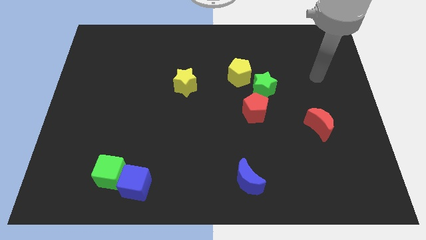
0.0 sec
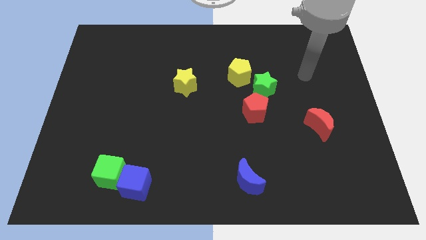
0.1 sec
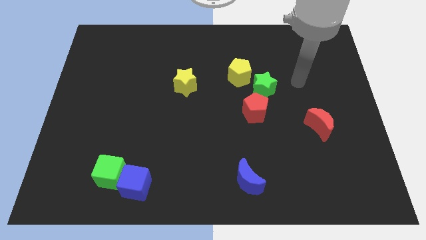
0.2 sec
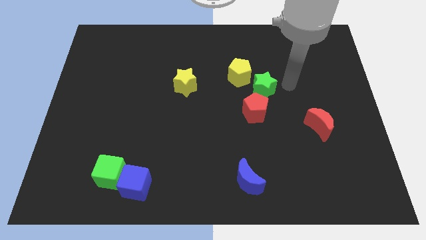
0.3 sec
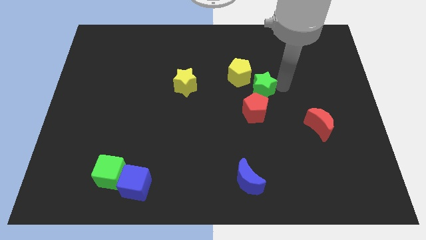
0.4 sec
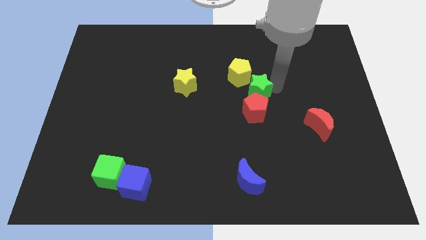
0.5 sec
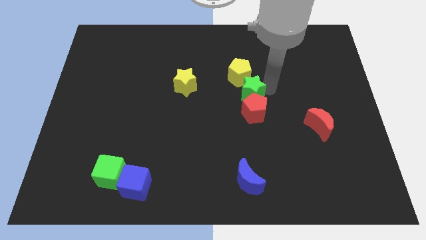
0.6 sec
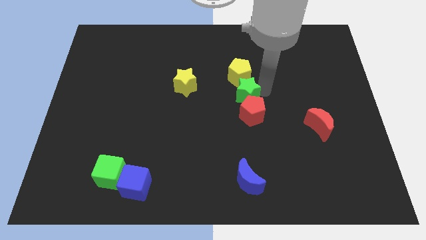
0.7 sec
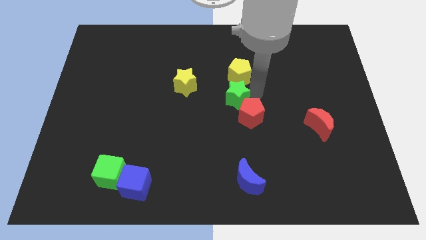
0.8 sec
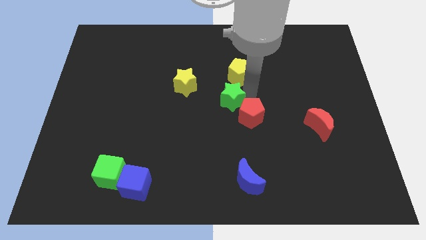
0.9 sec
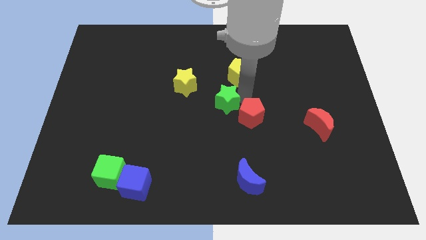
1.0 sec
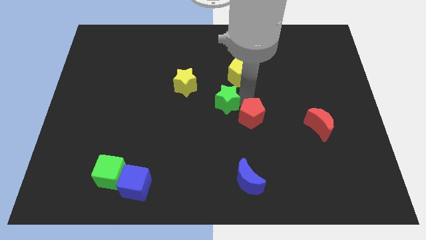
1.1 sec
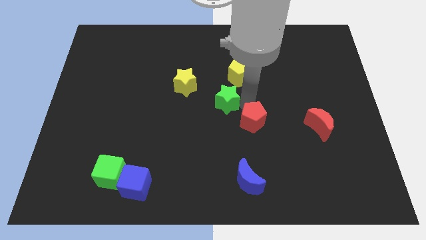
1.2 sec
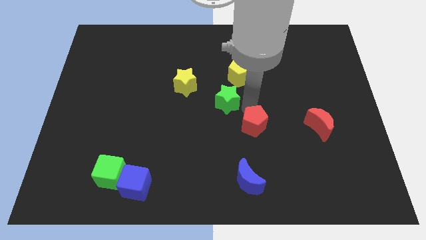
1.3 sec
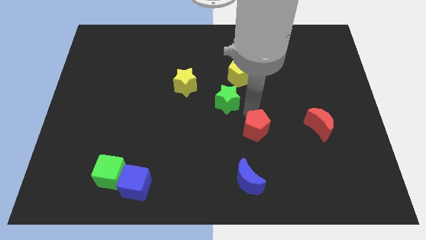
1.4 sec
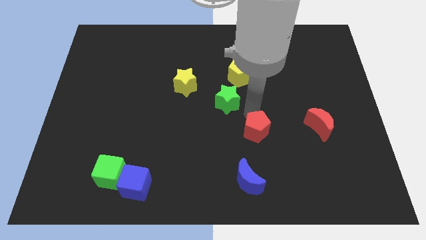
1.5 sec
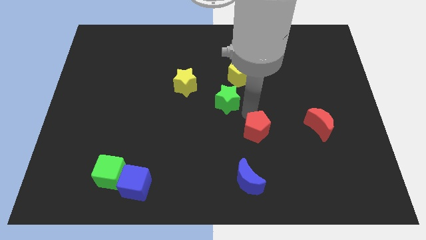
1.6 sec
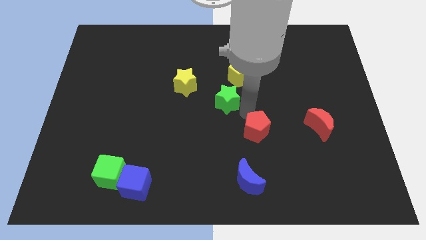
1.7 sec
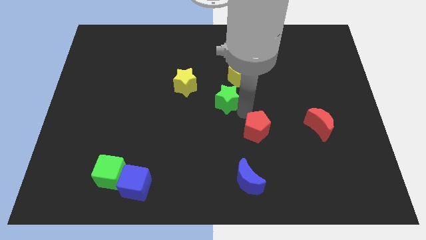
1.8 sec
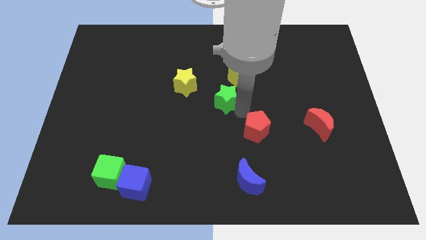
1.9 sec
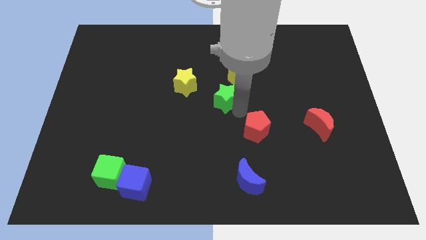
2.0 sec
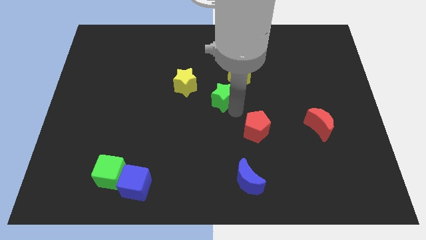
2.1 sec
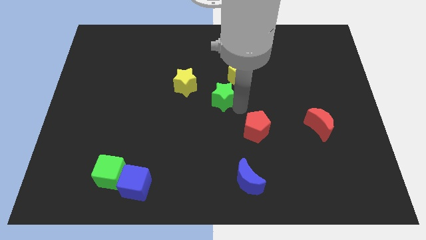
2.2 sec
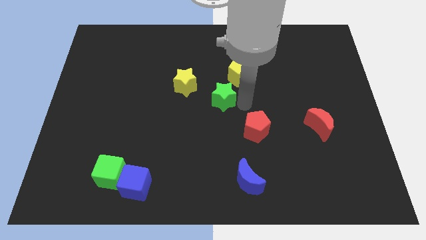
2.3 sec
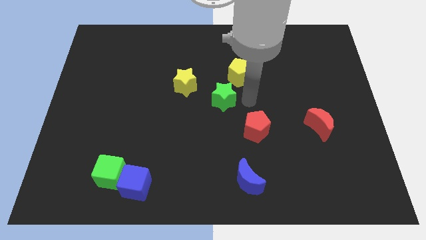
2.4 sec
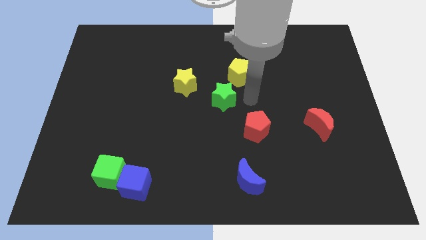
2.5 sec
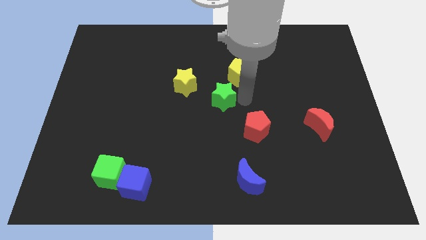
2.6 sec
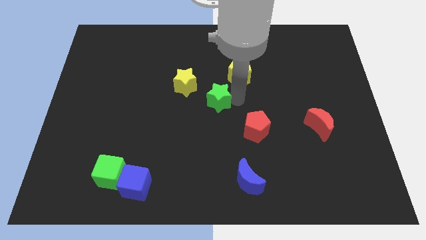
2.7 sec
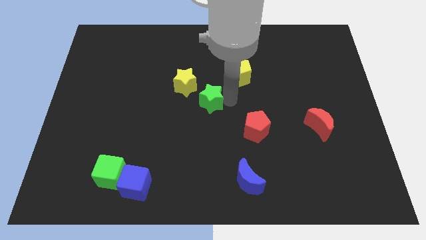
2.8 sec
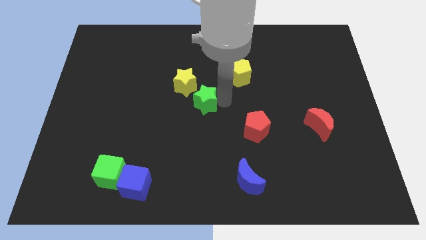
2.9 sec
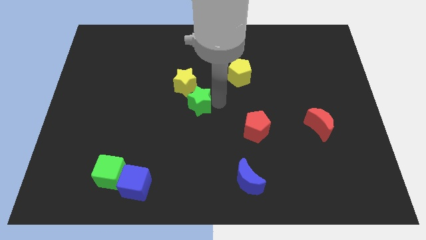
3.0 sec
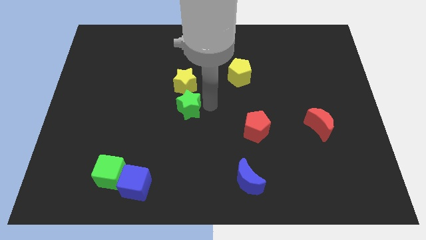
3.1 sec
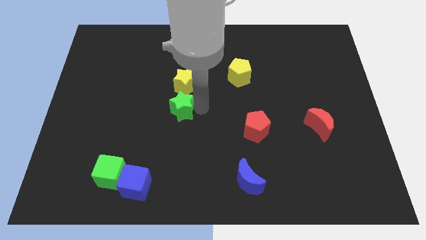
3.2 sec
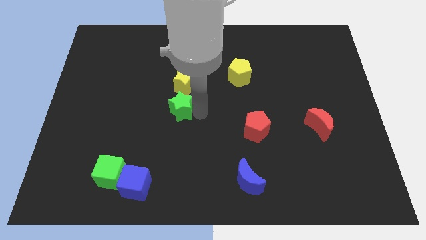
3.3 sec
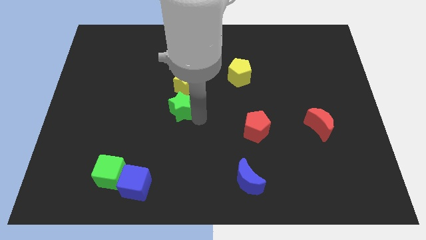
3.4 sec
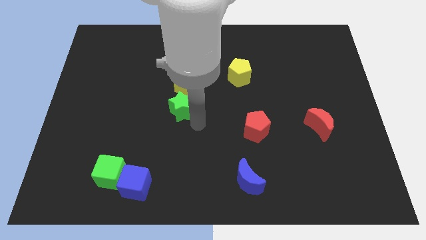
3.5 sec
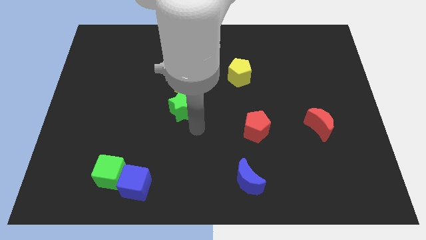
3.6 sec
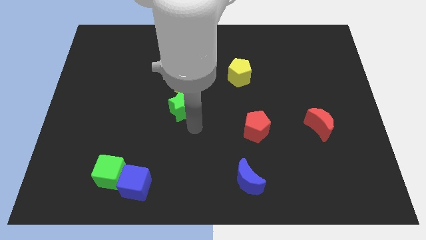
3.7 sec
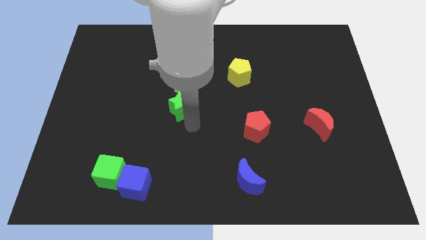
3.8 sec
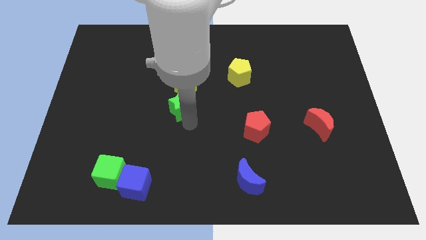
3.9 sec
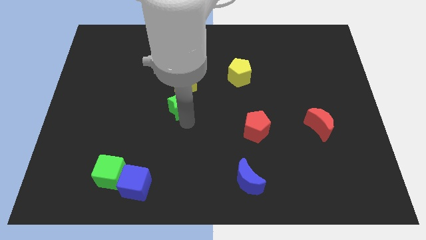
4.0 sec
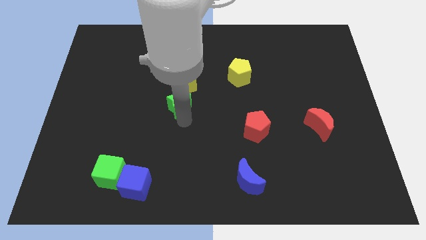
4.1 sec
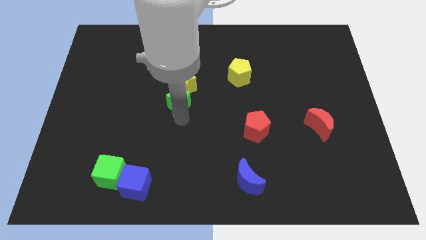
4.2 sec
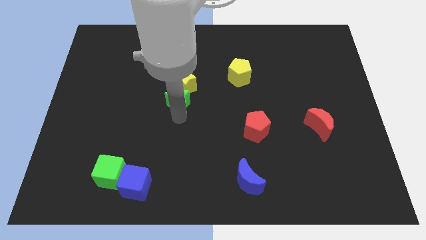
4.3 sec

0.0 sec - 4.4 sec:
push the green star to the left

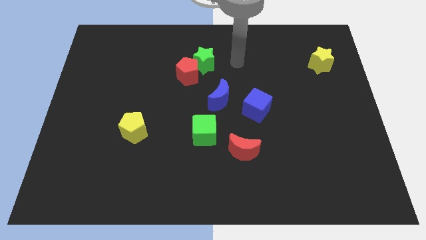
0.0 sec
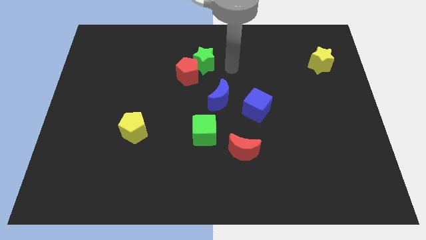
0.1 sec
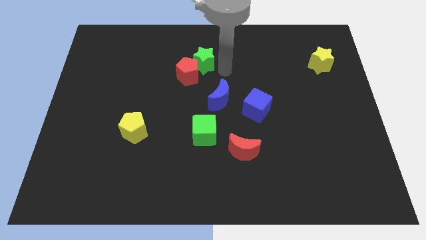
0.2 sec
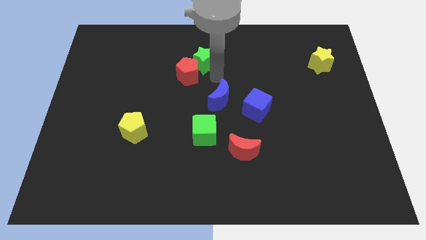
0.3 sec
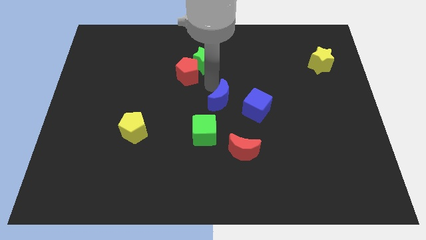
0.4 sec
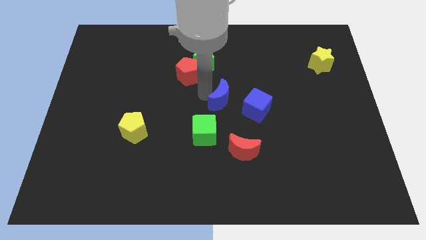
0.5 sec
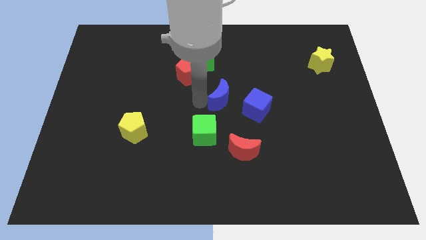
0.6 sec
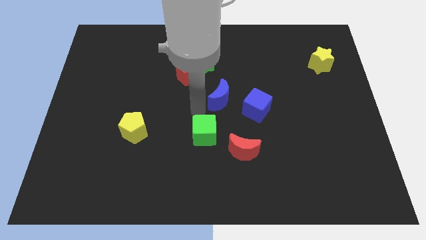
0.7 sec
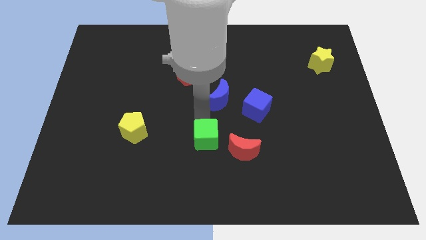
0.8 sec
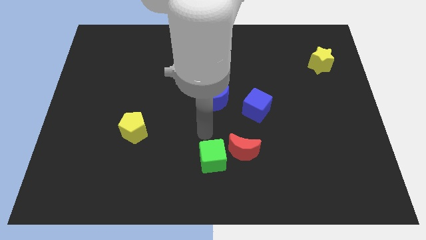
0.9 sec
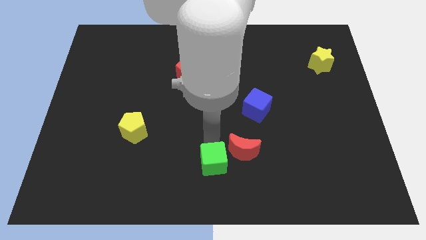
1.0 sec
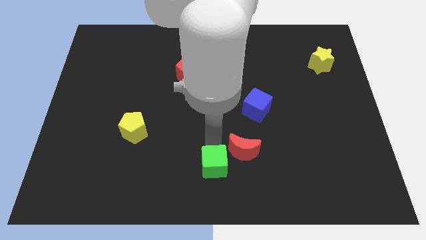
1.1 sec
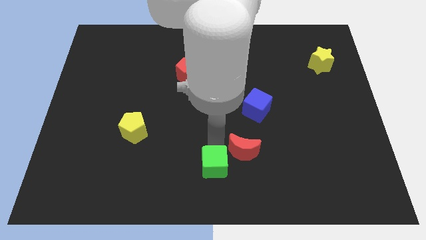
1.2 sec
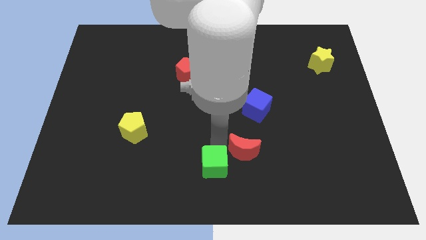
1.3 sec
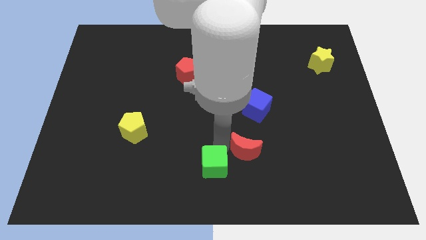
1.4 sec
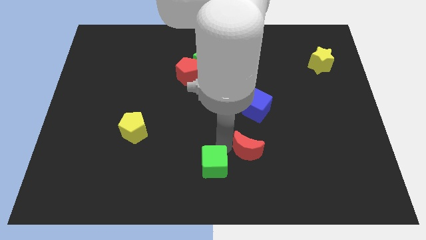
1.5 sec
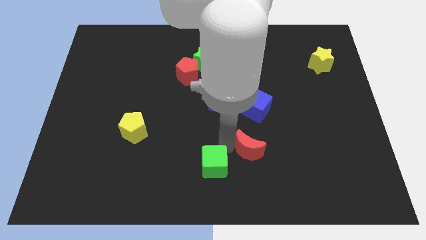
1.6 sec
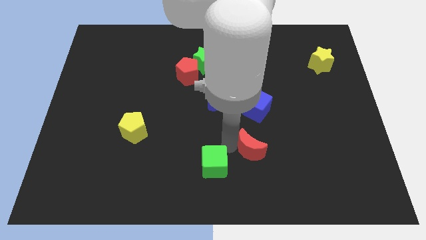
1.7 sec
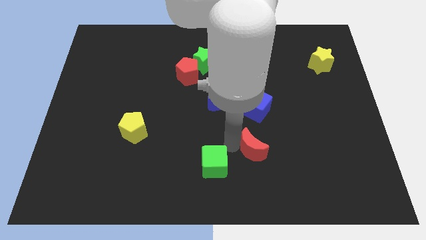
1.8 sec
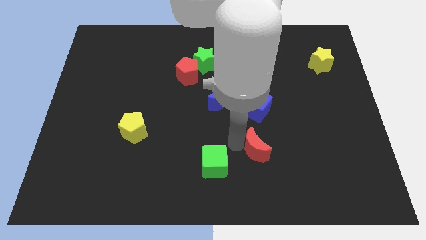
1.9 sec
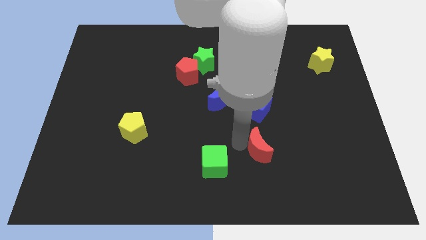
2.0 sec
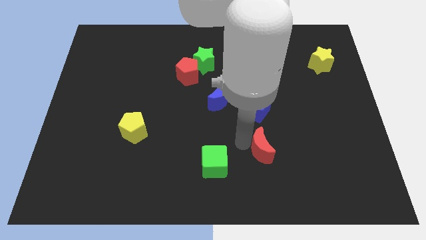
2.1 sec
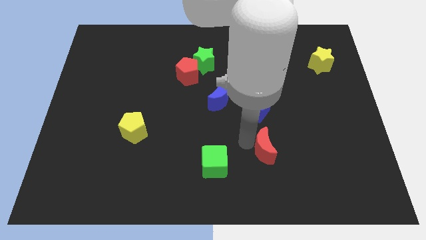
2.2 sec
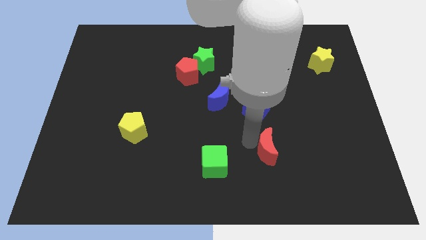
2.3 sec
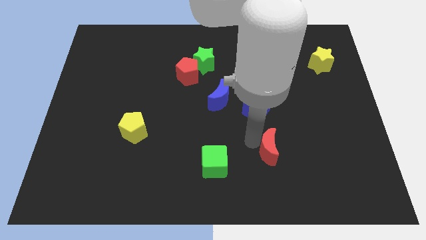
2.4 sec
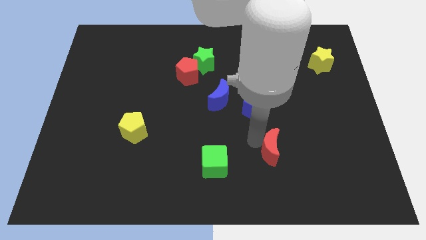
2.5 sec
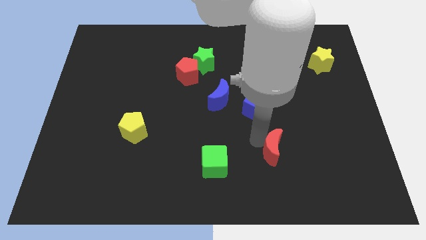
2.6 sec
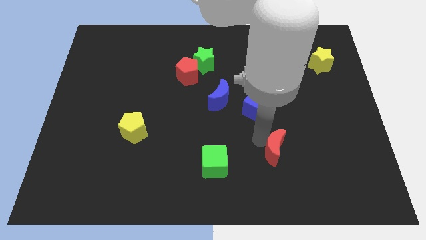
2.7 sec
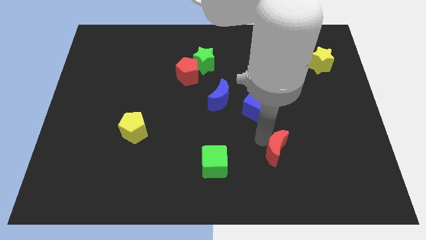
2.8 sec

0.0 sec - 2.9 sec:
slightly move the red moon to the right

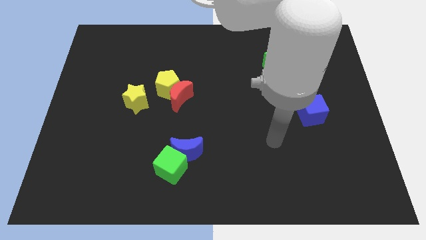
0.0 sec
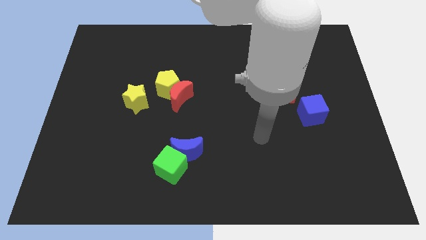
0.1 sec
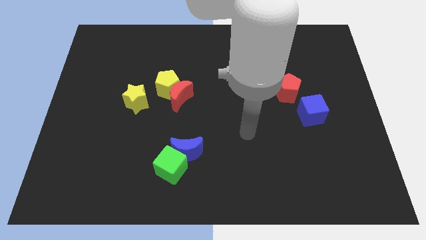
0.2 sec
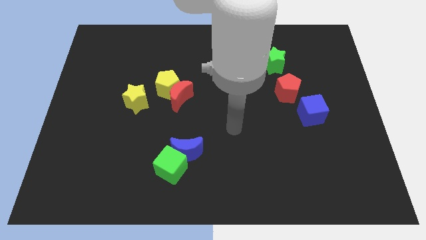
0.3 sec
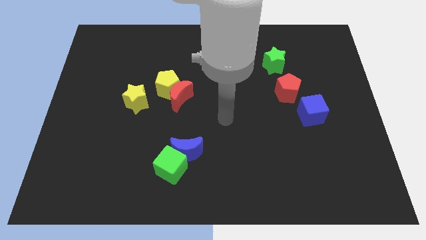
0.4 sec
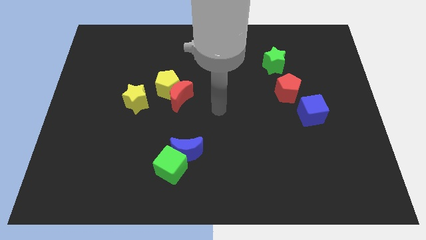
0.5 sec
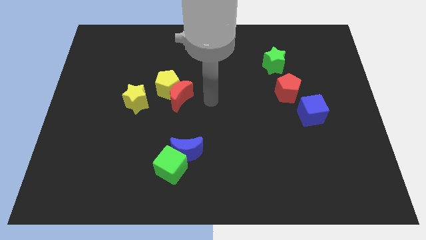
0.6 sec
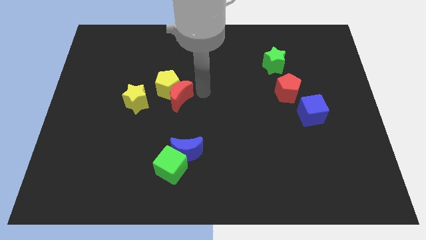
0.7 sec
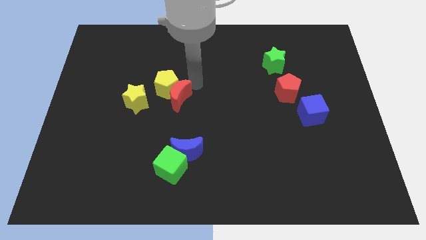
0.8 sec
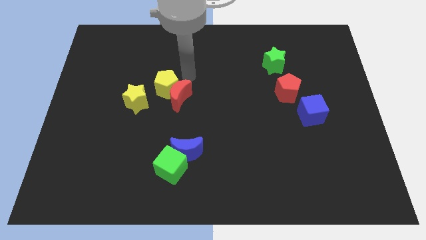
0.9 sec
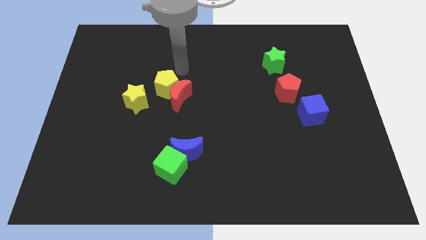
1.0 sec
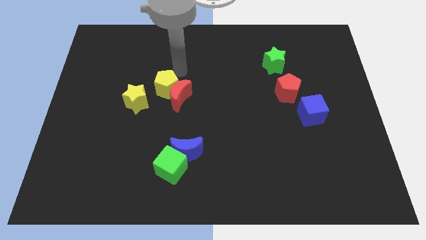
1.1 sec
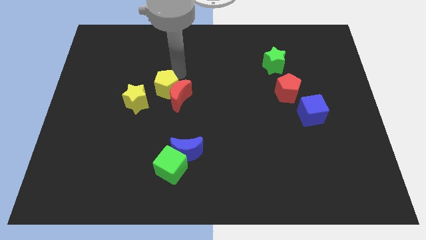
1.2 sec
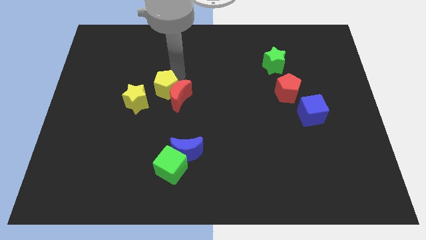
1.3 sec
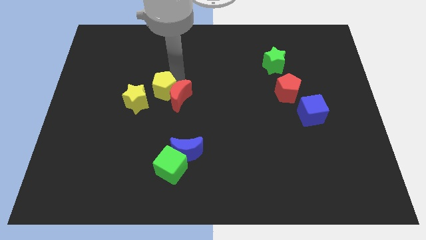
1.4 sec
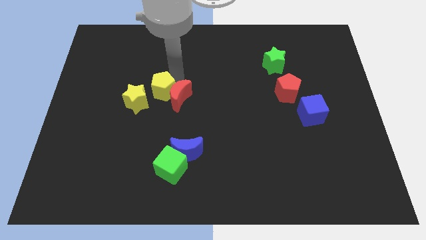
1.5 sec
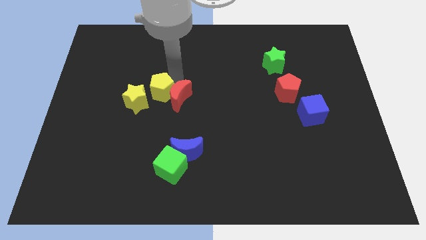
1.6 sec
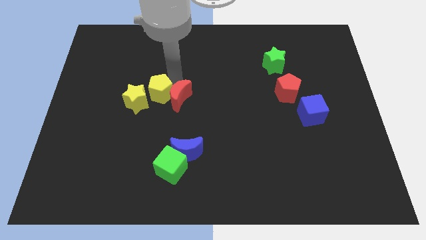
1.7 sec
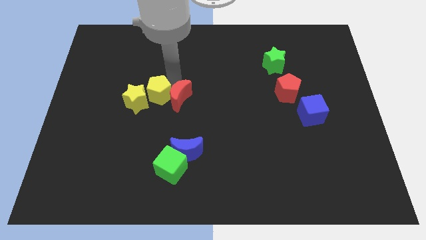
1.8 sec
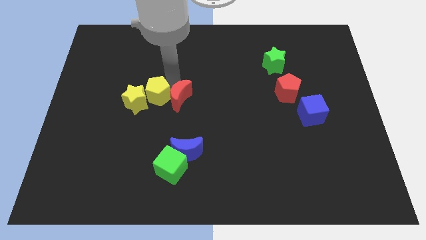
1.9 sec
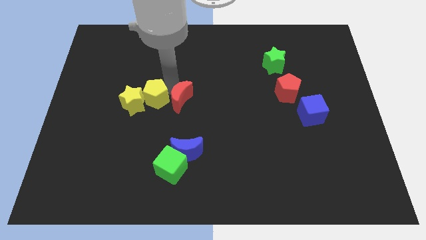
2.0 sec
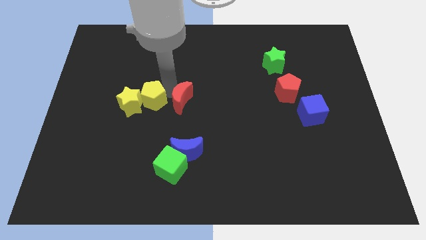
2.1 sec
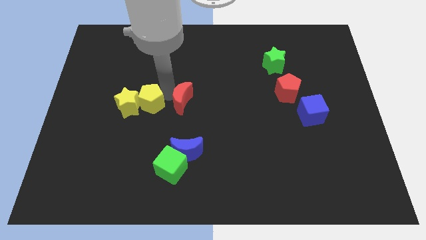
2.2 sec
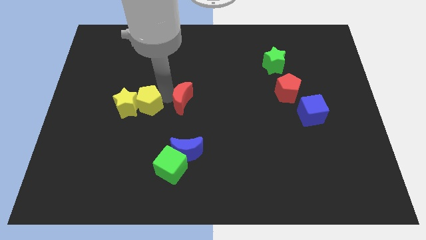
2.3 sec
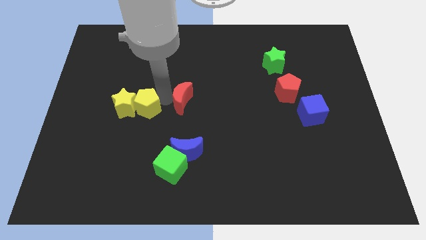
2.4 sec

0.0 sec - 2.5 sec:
move the yellow pentagon slightly diagonally down and to the left
